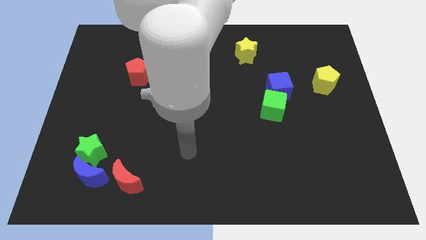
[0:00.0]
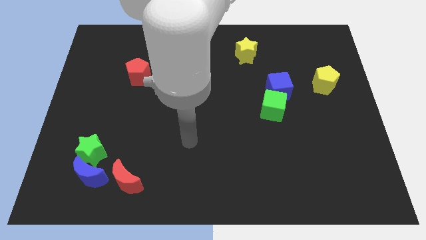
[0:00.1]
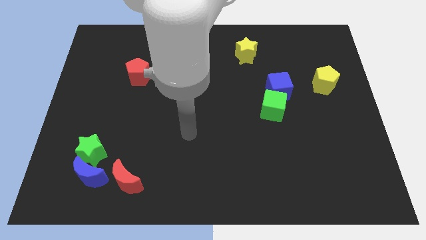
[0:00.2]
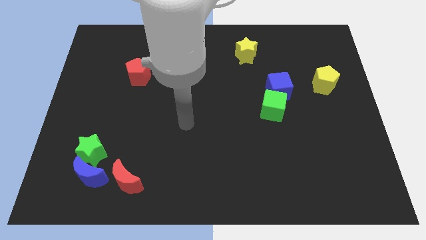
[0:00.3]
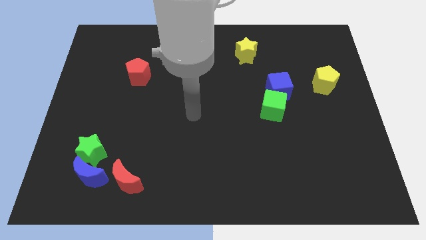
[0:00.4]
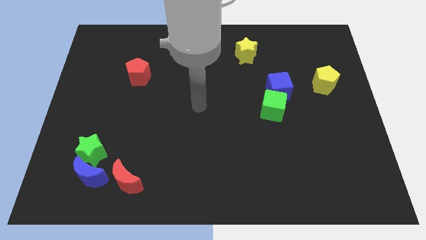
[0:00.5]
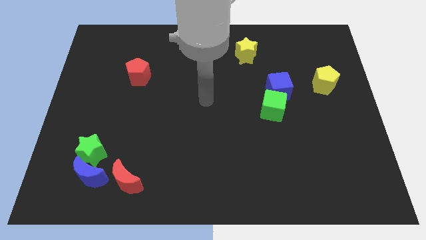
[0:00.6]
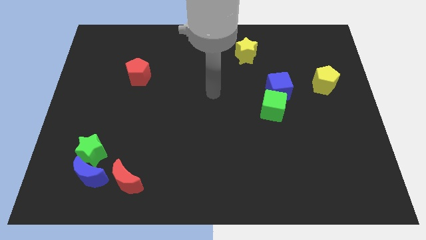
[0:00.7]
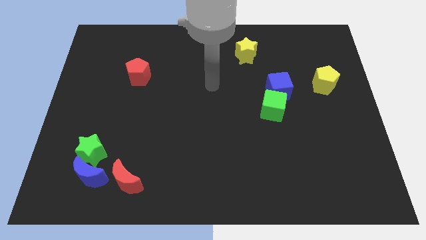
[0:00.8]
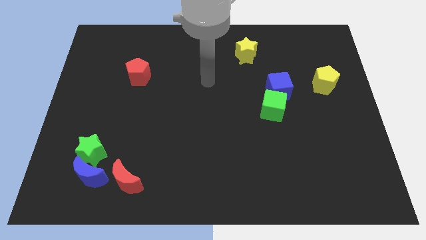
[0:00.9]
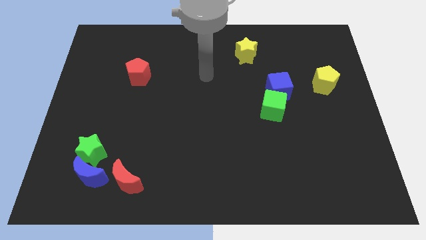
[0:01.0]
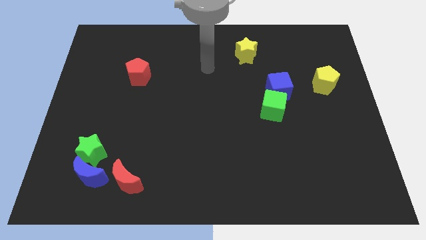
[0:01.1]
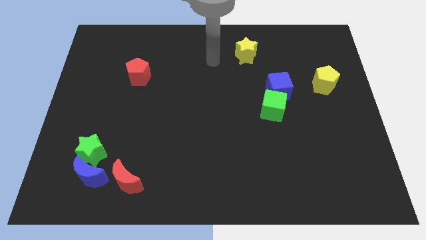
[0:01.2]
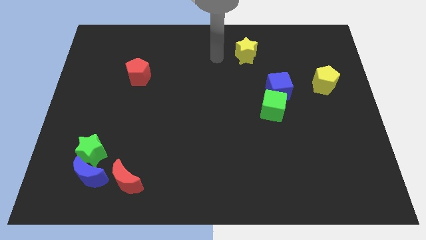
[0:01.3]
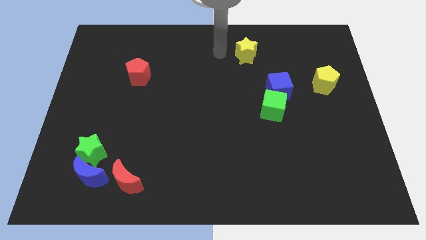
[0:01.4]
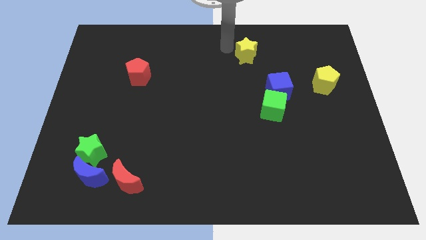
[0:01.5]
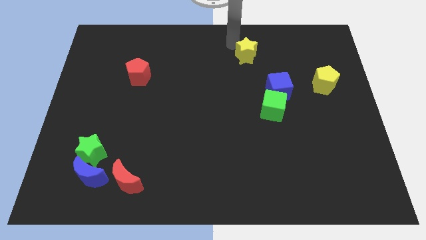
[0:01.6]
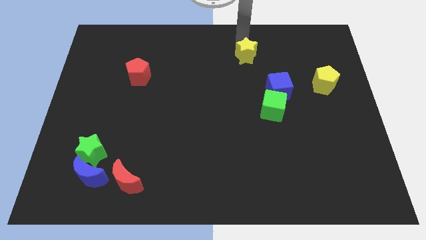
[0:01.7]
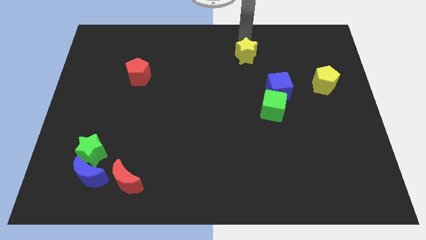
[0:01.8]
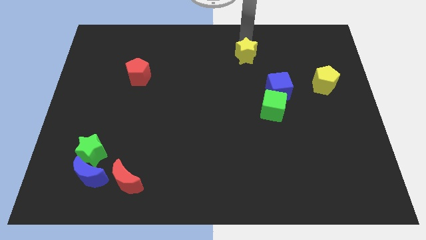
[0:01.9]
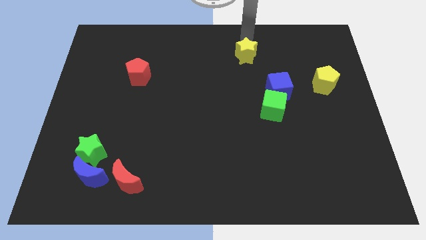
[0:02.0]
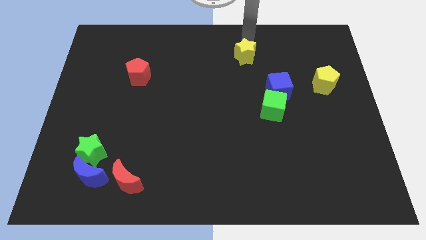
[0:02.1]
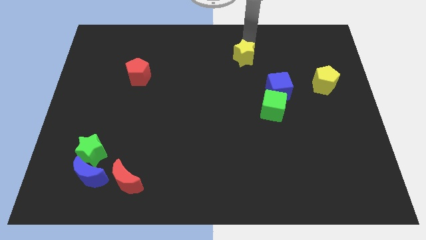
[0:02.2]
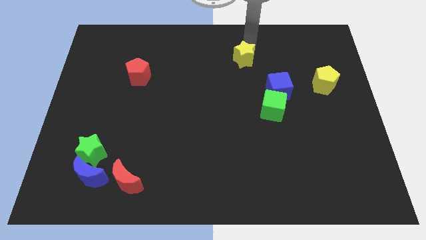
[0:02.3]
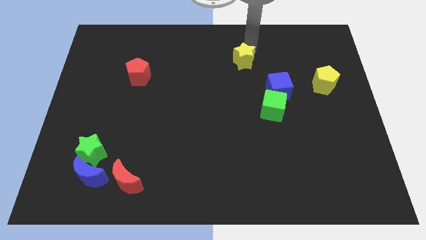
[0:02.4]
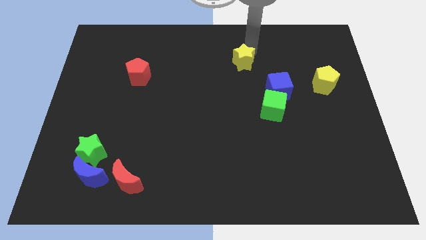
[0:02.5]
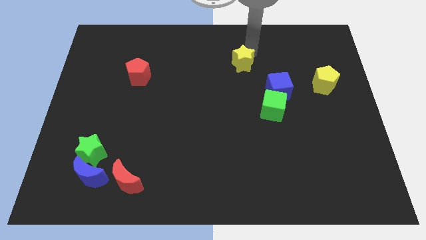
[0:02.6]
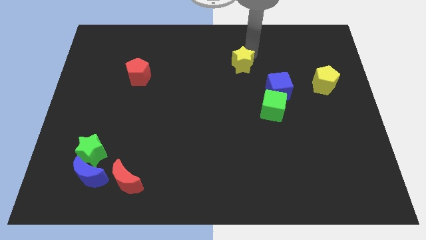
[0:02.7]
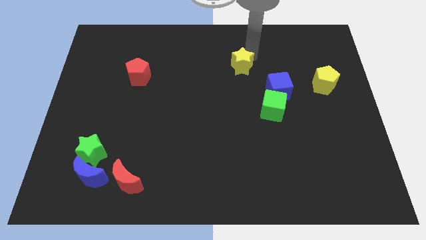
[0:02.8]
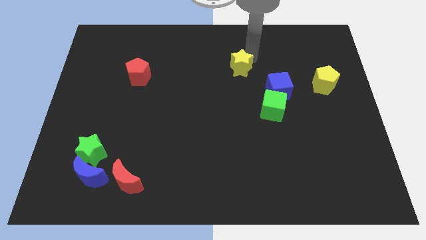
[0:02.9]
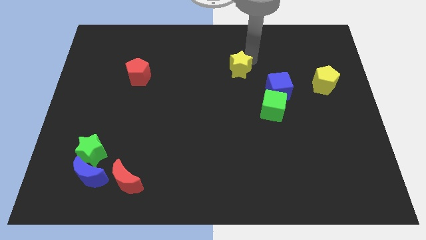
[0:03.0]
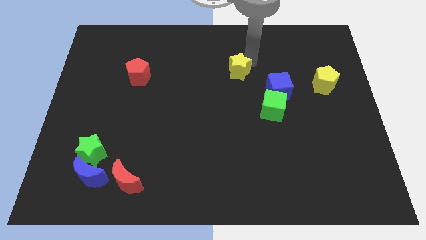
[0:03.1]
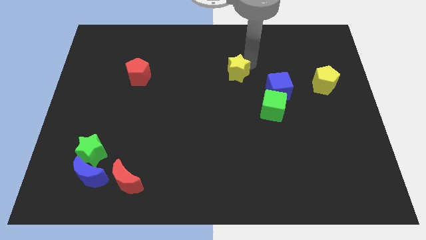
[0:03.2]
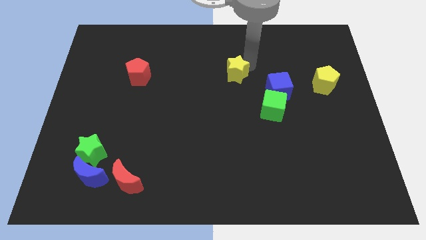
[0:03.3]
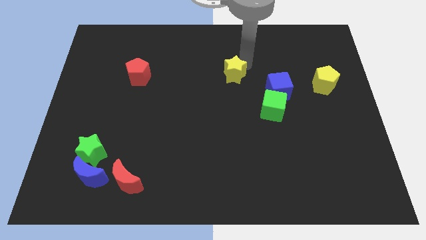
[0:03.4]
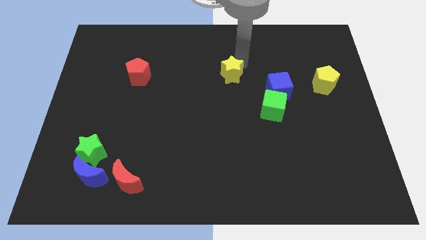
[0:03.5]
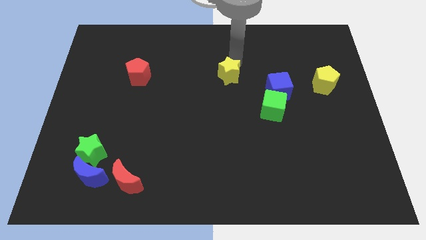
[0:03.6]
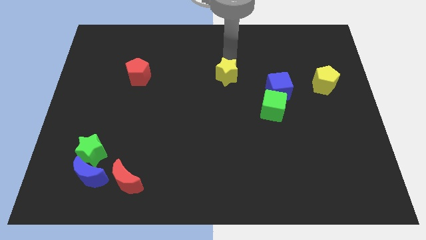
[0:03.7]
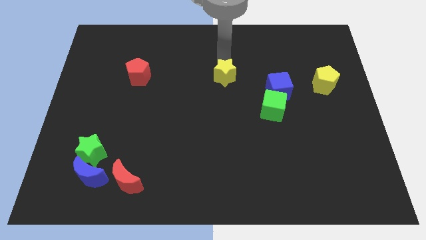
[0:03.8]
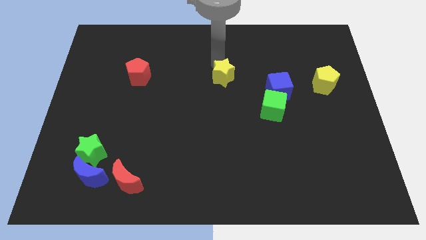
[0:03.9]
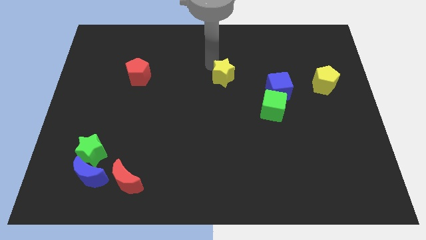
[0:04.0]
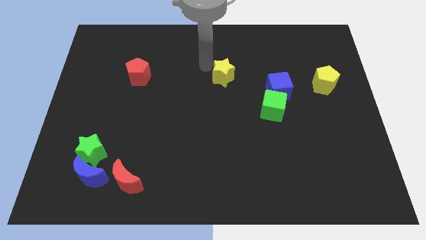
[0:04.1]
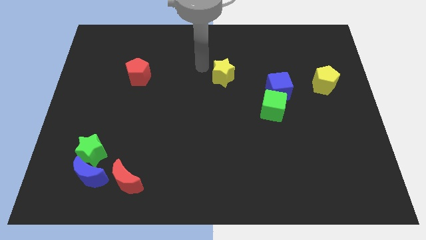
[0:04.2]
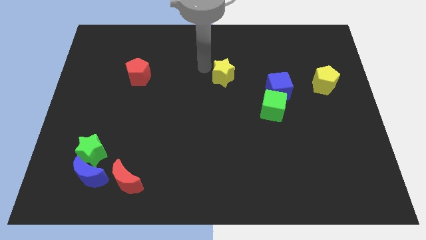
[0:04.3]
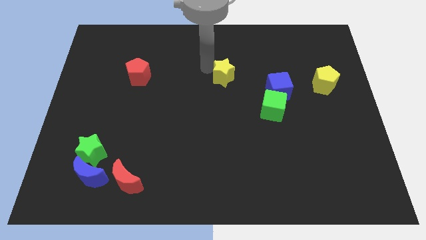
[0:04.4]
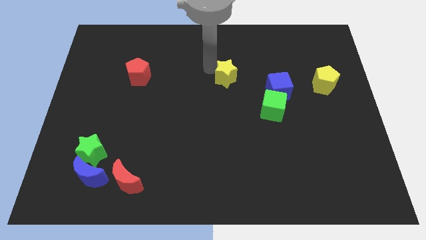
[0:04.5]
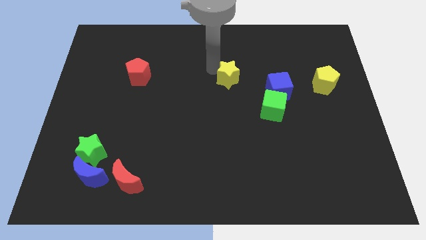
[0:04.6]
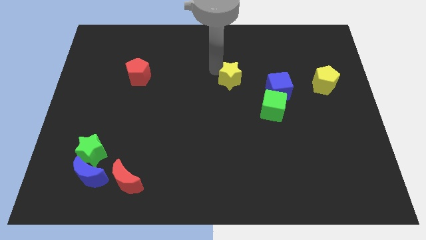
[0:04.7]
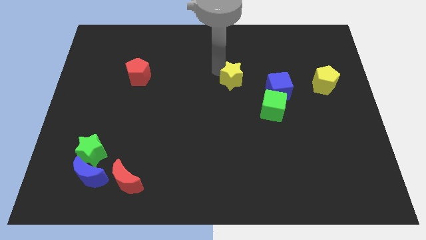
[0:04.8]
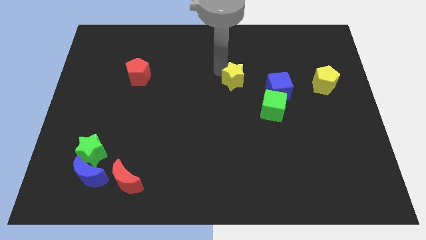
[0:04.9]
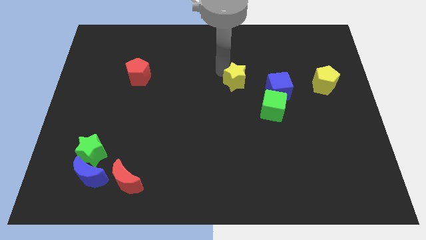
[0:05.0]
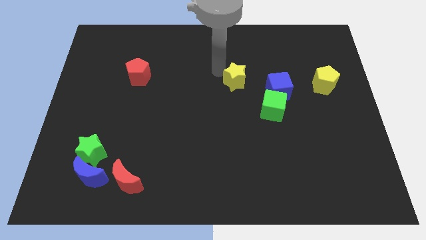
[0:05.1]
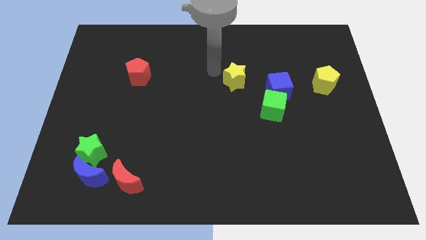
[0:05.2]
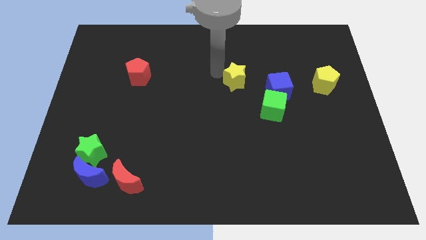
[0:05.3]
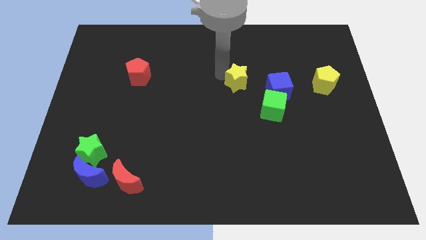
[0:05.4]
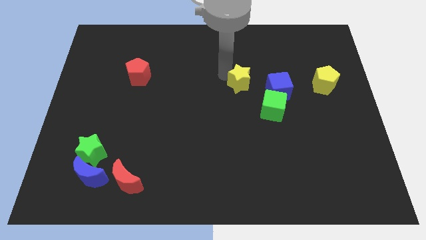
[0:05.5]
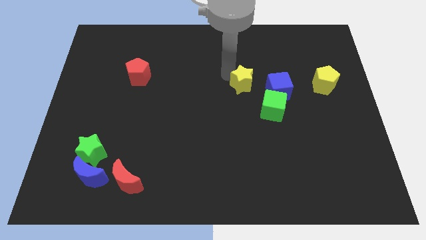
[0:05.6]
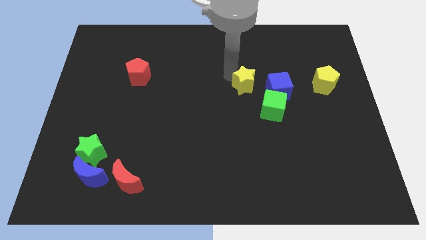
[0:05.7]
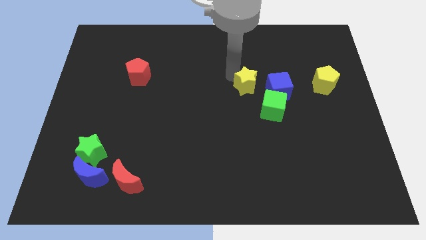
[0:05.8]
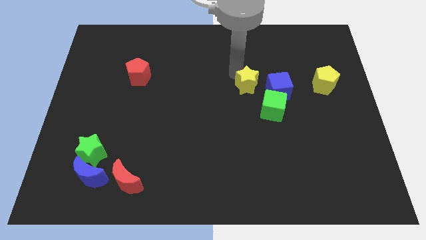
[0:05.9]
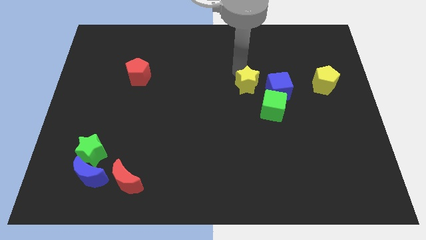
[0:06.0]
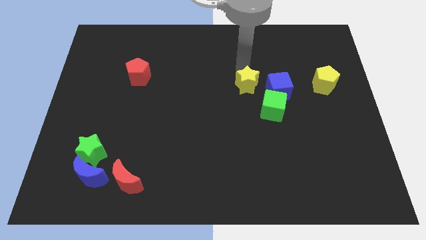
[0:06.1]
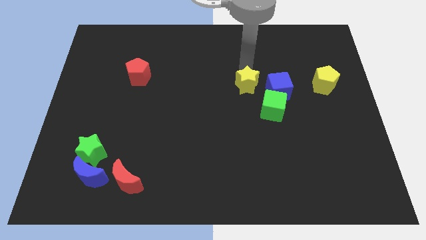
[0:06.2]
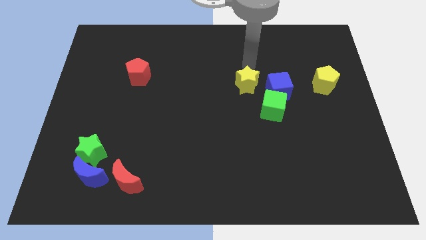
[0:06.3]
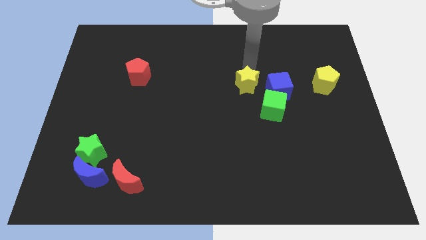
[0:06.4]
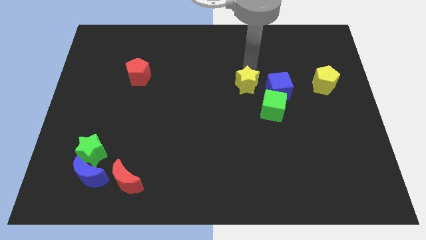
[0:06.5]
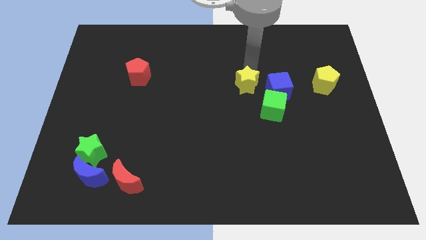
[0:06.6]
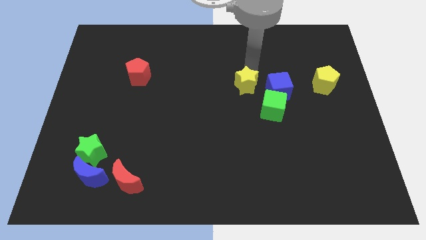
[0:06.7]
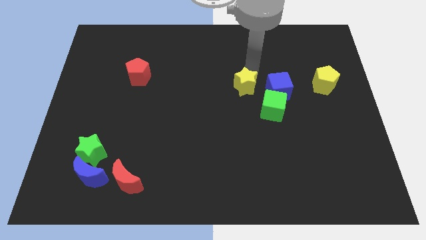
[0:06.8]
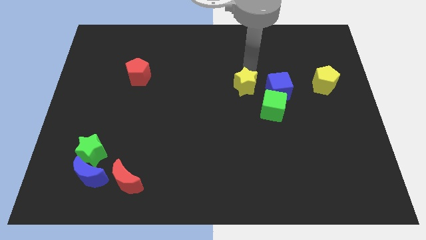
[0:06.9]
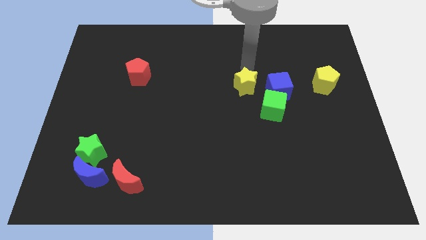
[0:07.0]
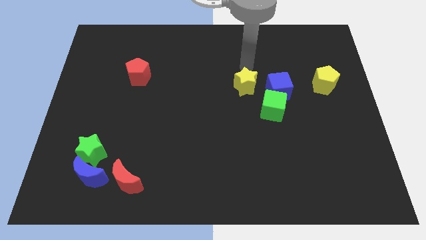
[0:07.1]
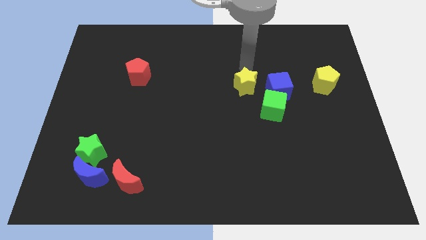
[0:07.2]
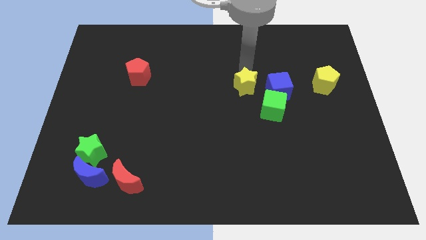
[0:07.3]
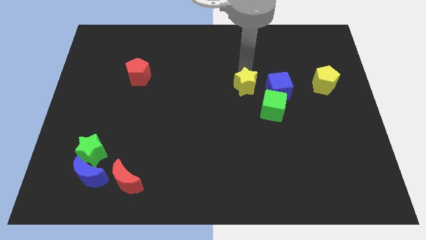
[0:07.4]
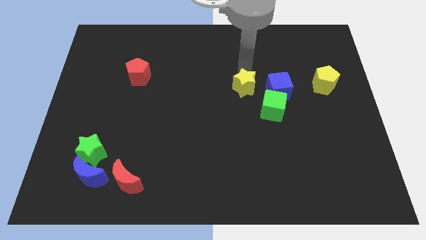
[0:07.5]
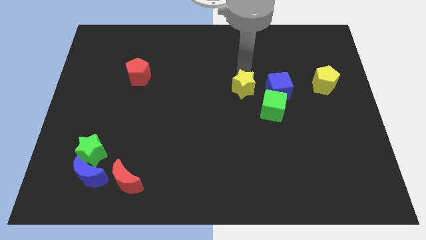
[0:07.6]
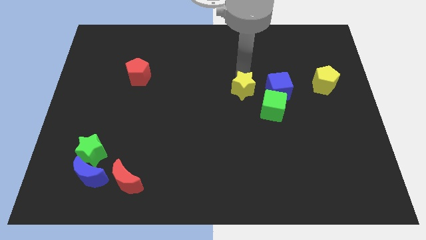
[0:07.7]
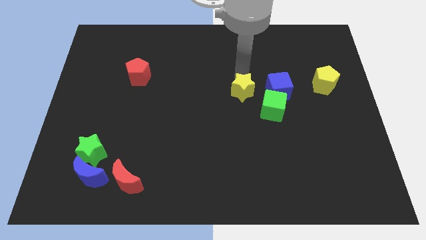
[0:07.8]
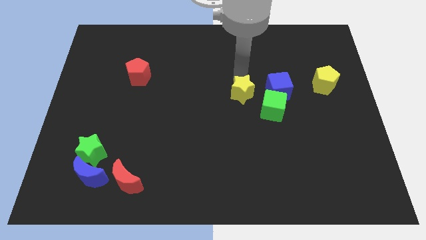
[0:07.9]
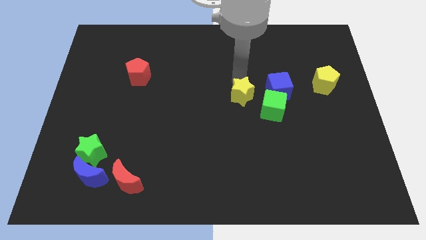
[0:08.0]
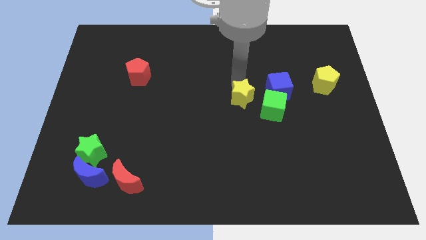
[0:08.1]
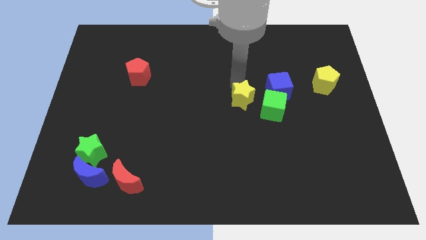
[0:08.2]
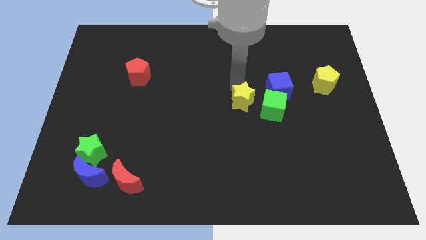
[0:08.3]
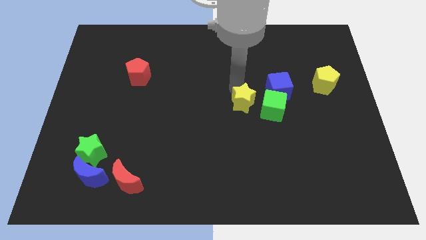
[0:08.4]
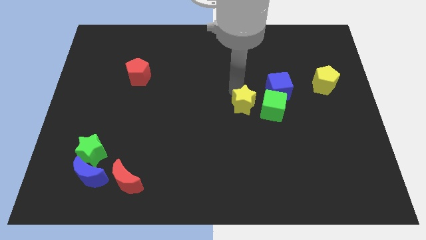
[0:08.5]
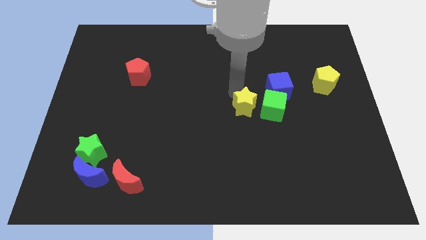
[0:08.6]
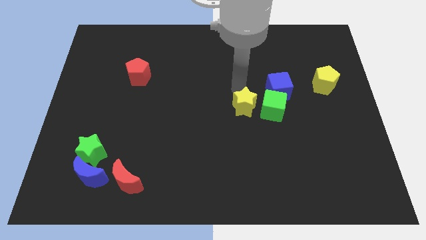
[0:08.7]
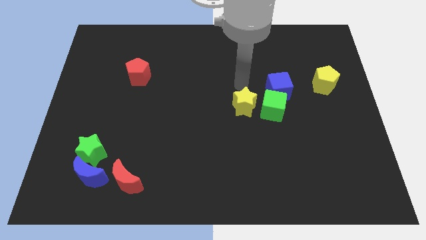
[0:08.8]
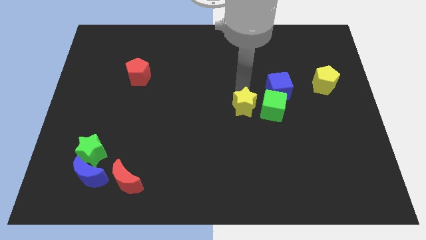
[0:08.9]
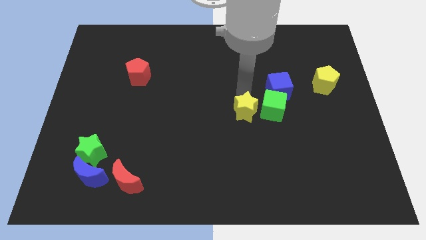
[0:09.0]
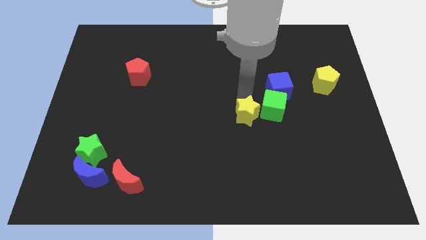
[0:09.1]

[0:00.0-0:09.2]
slide the yellow star downwards
